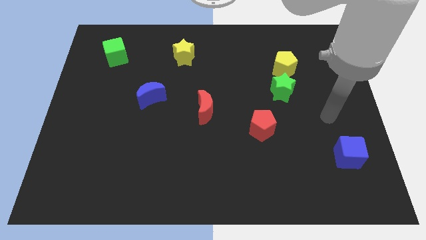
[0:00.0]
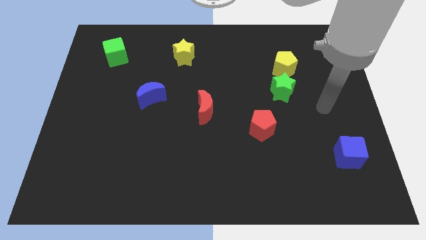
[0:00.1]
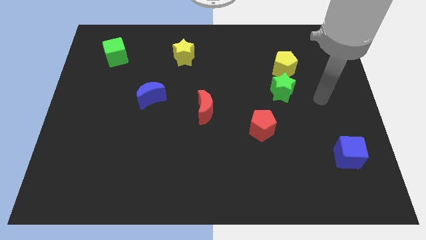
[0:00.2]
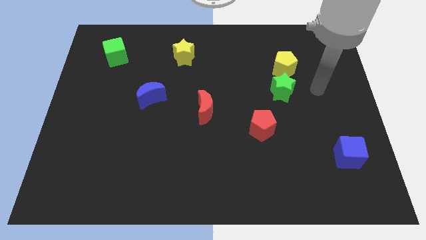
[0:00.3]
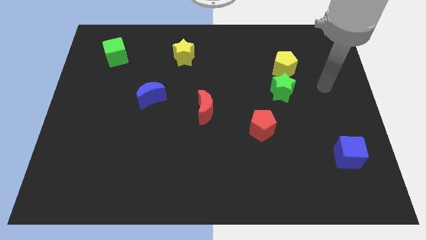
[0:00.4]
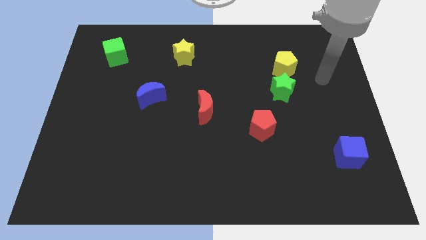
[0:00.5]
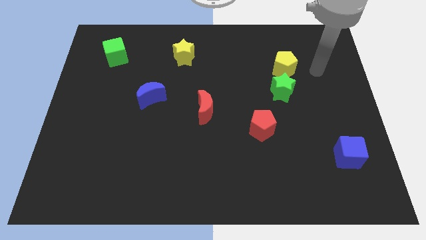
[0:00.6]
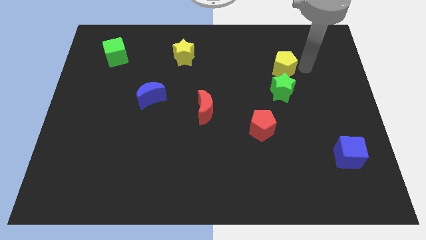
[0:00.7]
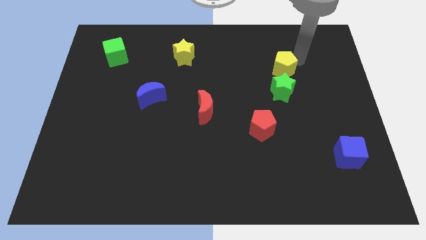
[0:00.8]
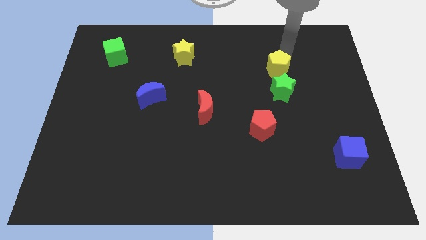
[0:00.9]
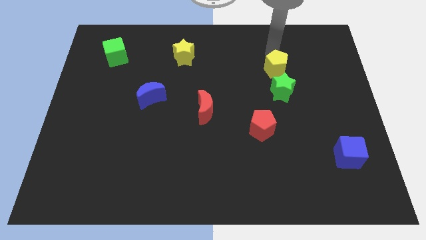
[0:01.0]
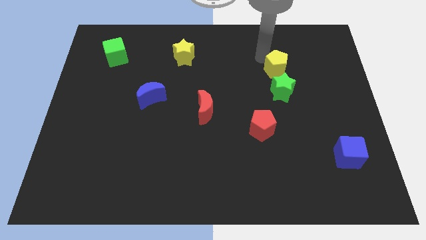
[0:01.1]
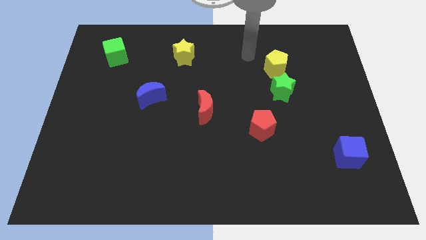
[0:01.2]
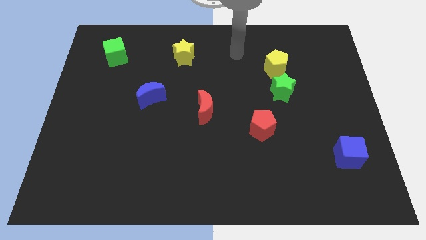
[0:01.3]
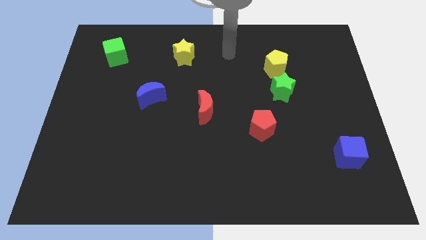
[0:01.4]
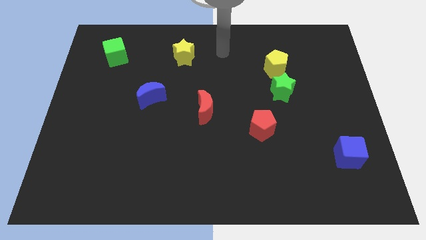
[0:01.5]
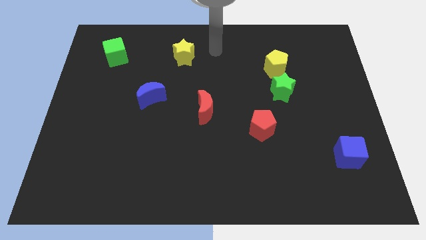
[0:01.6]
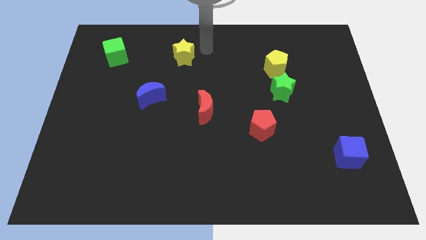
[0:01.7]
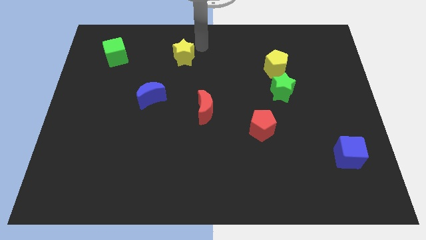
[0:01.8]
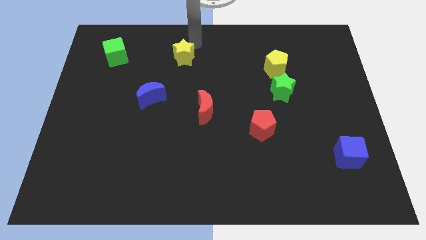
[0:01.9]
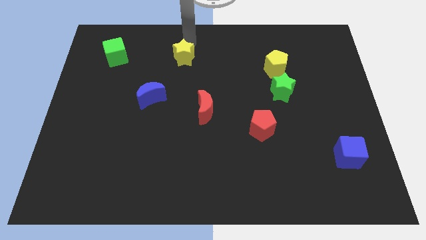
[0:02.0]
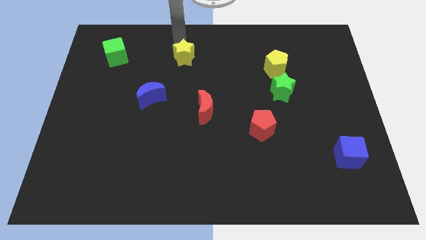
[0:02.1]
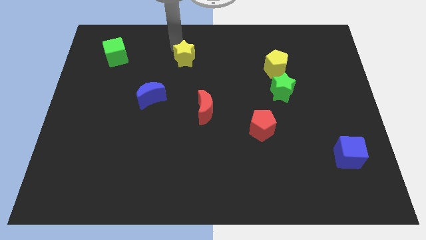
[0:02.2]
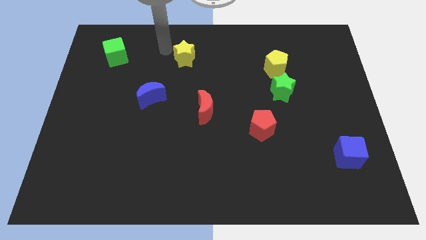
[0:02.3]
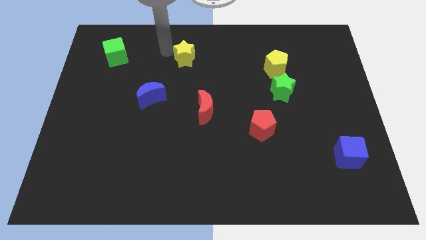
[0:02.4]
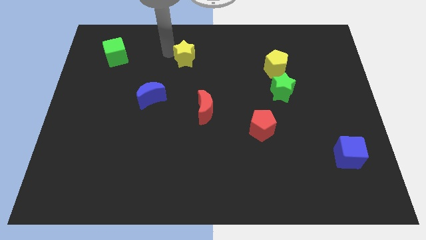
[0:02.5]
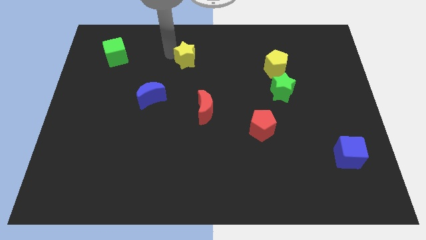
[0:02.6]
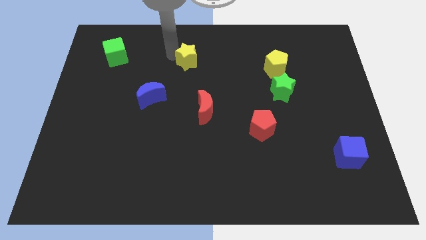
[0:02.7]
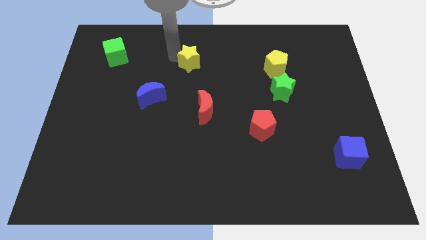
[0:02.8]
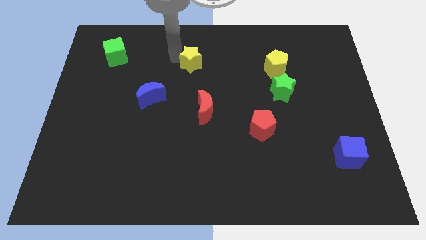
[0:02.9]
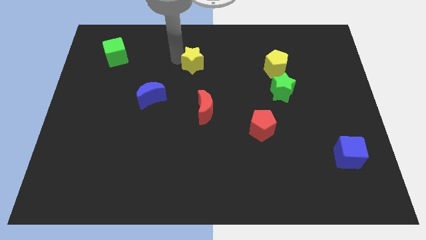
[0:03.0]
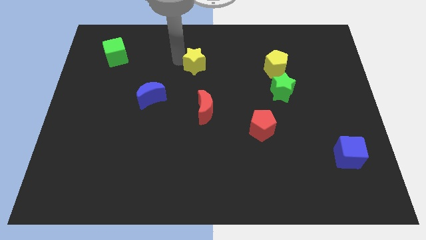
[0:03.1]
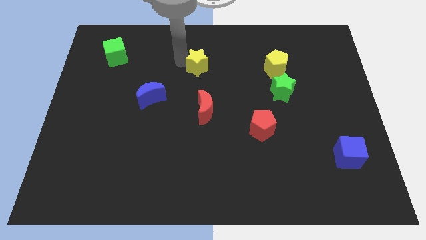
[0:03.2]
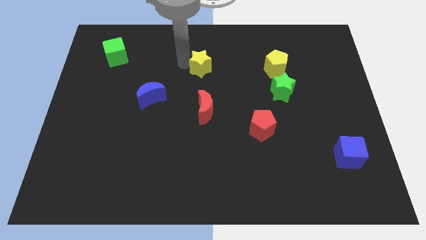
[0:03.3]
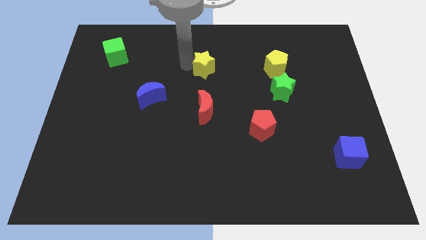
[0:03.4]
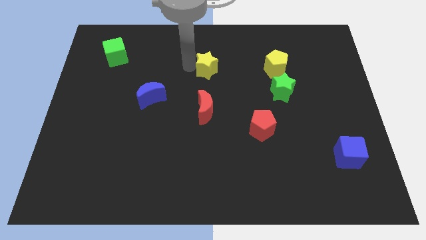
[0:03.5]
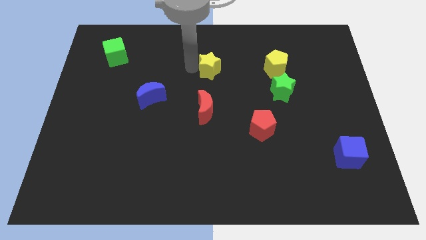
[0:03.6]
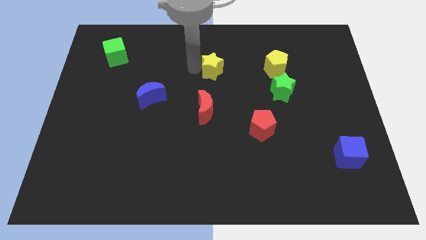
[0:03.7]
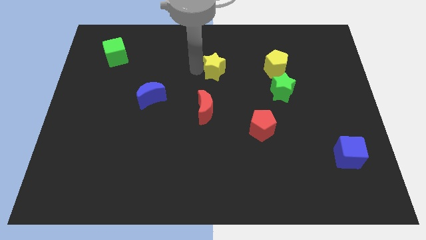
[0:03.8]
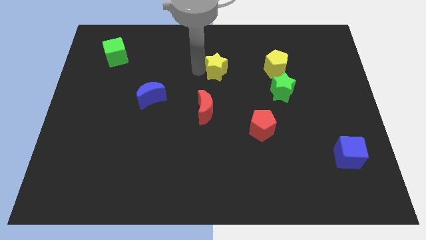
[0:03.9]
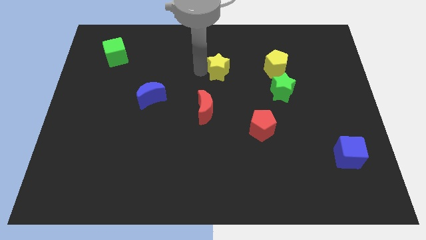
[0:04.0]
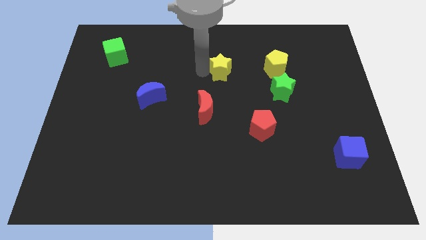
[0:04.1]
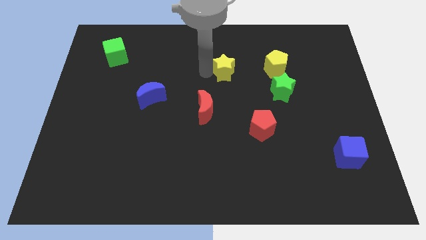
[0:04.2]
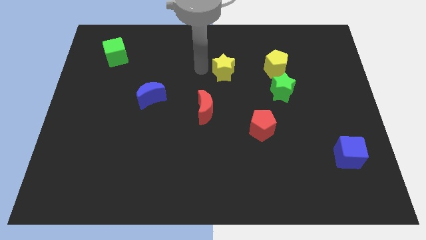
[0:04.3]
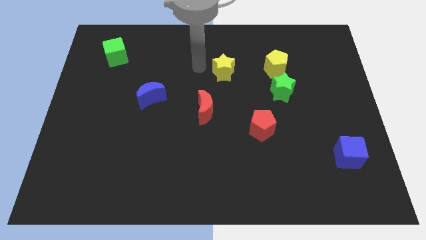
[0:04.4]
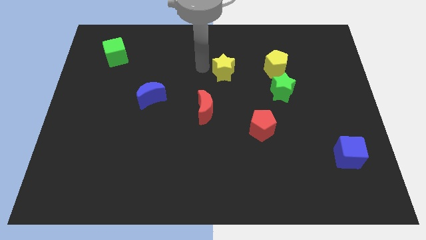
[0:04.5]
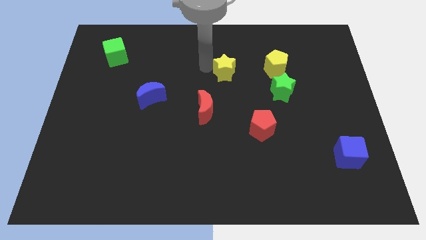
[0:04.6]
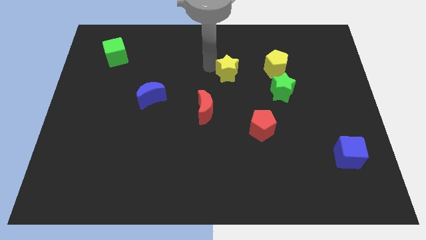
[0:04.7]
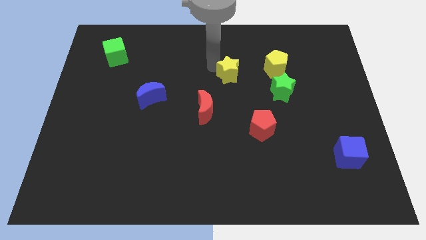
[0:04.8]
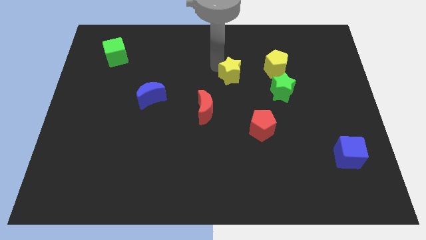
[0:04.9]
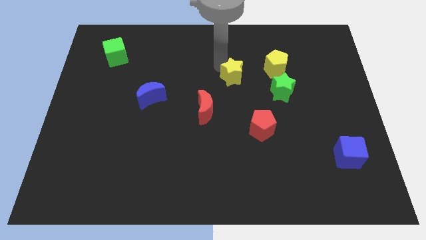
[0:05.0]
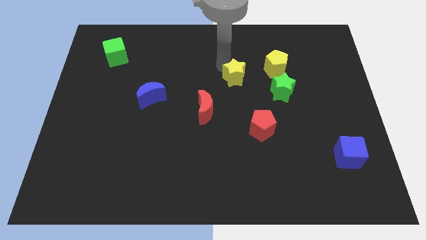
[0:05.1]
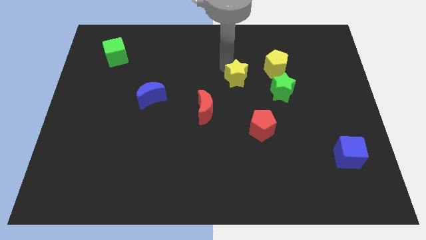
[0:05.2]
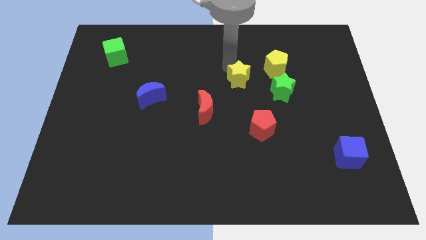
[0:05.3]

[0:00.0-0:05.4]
slide the yellow star to the top left of the green star

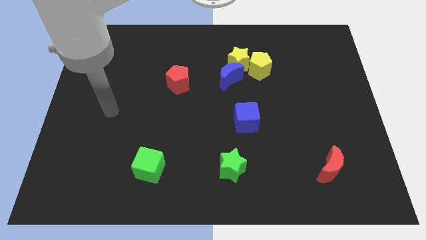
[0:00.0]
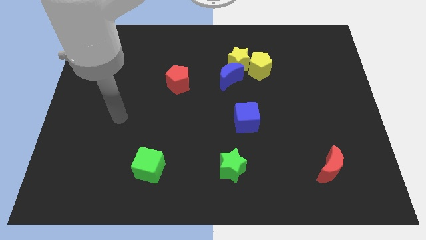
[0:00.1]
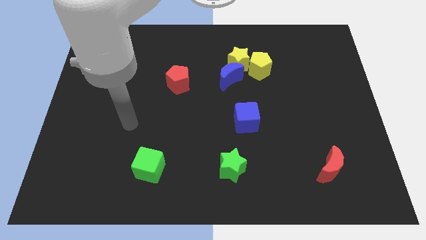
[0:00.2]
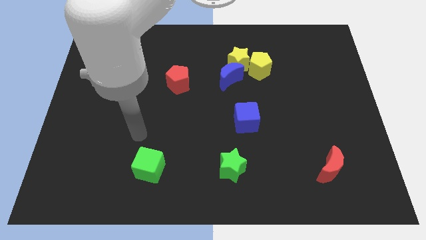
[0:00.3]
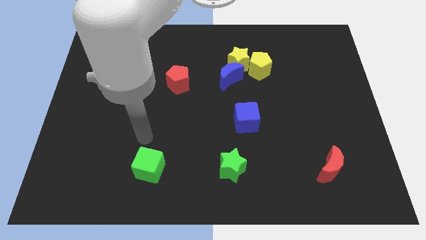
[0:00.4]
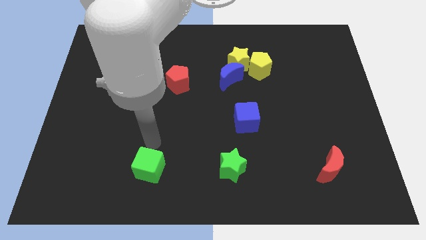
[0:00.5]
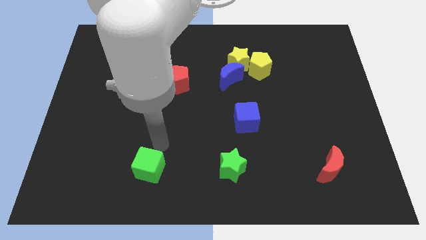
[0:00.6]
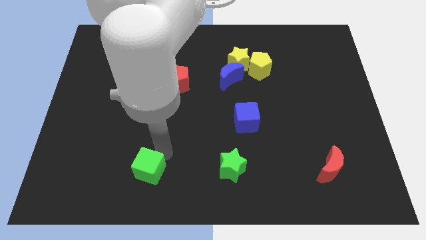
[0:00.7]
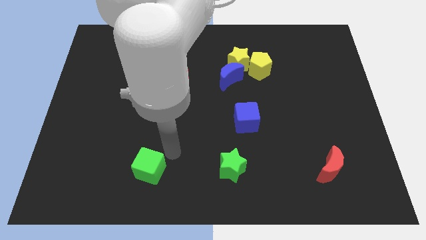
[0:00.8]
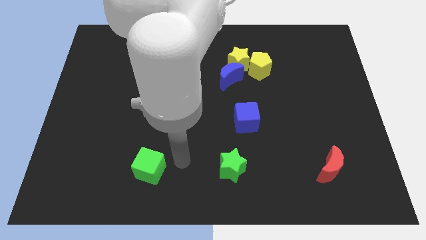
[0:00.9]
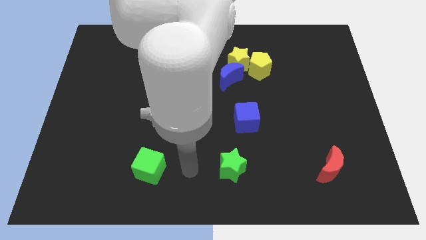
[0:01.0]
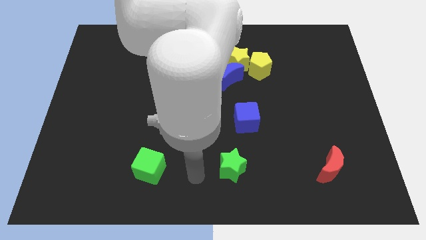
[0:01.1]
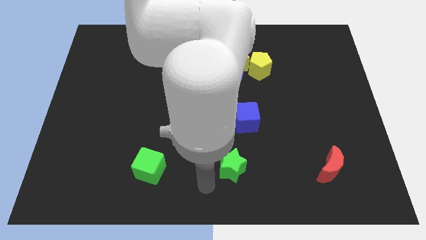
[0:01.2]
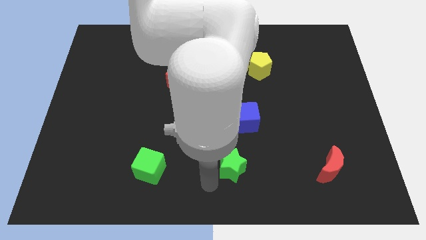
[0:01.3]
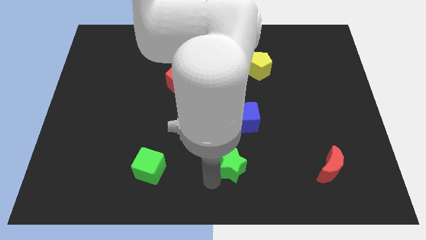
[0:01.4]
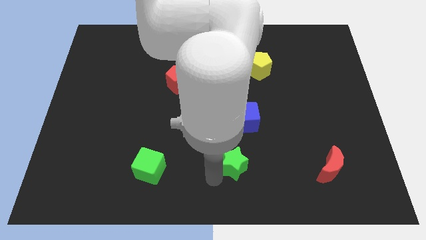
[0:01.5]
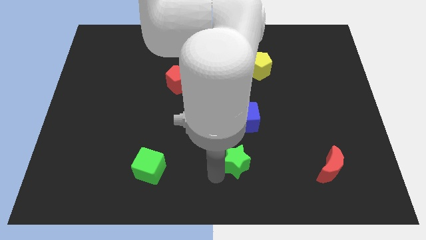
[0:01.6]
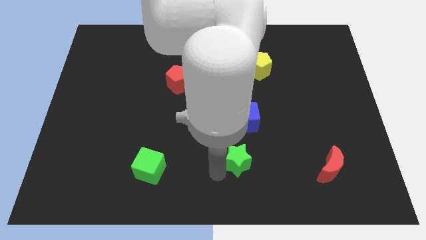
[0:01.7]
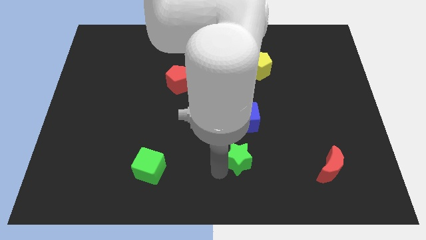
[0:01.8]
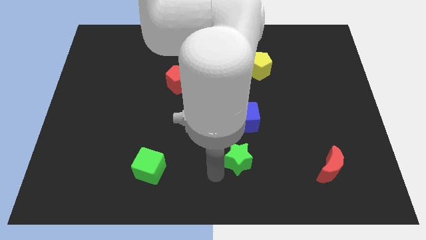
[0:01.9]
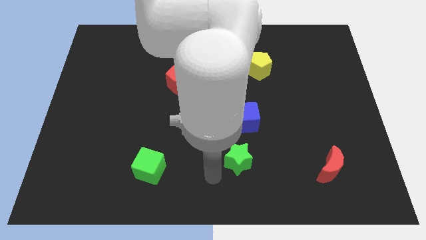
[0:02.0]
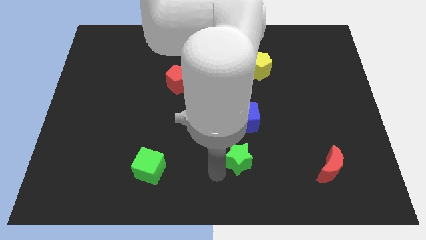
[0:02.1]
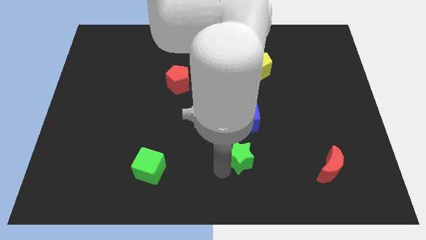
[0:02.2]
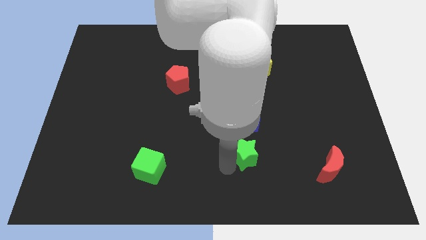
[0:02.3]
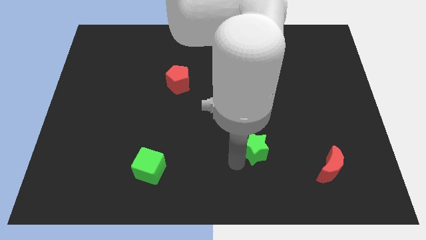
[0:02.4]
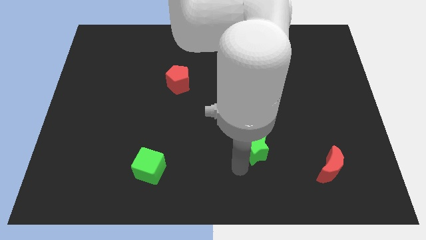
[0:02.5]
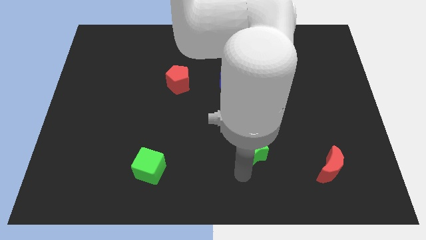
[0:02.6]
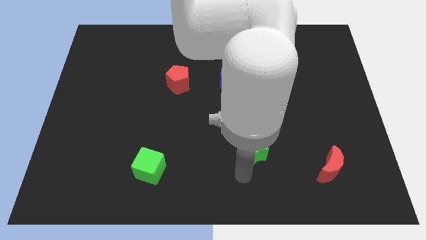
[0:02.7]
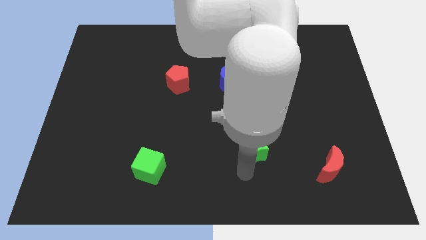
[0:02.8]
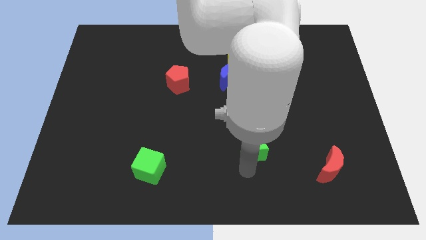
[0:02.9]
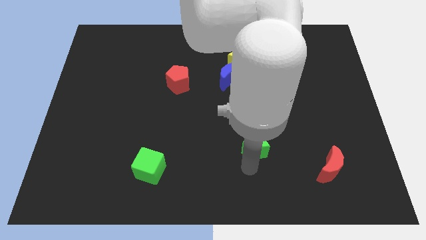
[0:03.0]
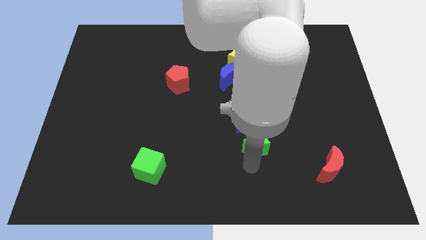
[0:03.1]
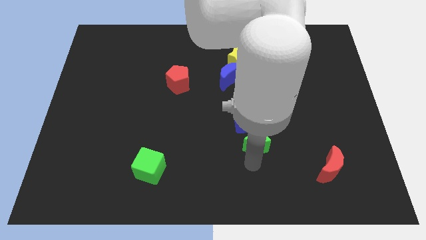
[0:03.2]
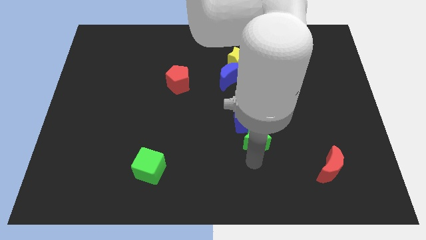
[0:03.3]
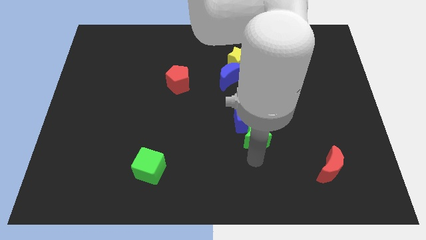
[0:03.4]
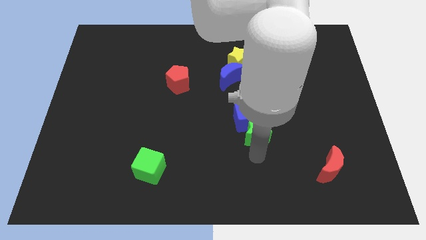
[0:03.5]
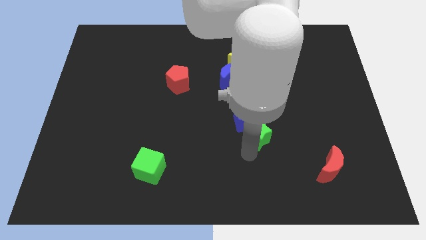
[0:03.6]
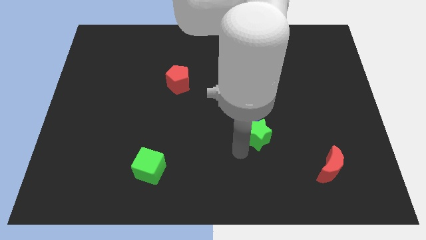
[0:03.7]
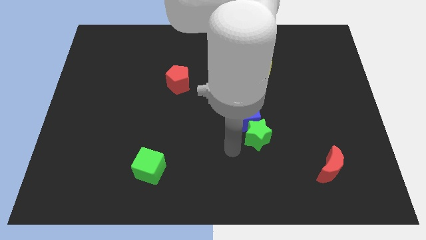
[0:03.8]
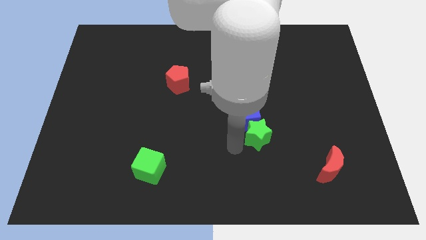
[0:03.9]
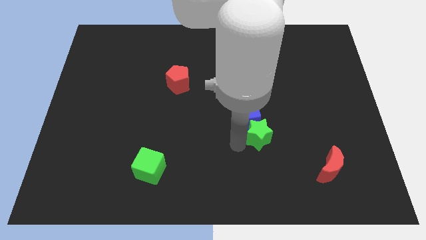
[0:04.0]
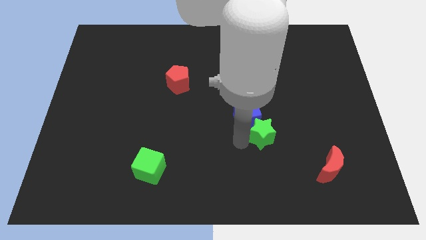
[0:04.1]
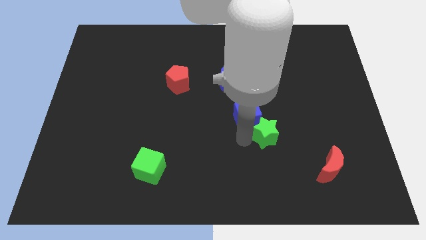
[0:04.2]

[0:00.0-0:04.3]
push the green star just right of the blue cube
